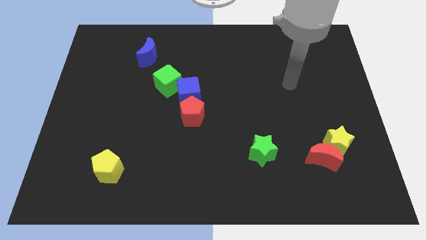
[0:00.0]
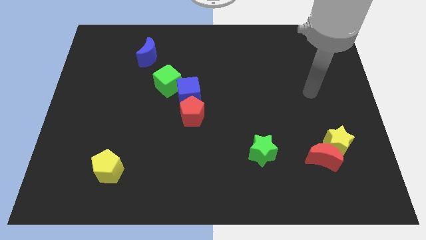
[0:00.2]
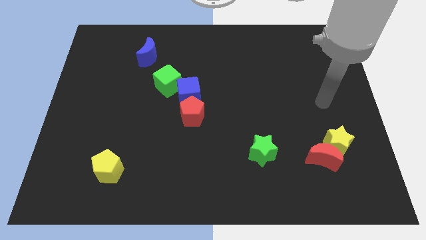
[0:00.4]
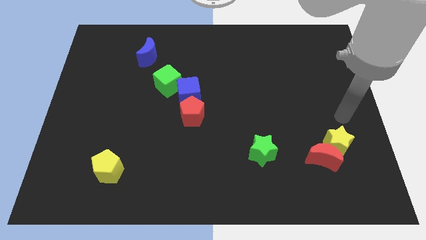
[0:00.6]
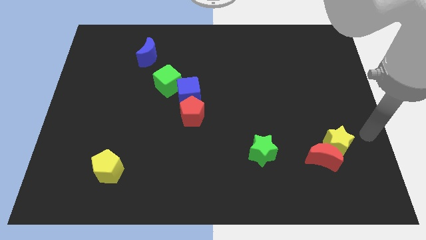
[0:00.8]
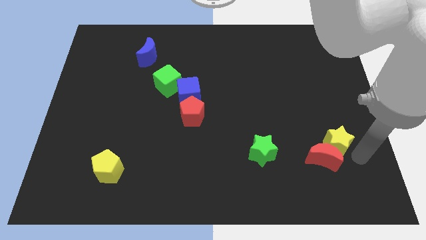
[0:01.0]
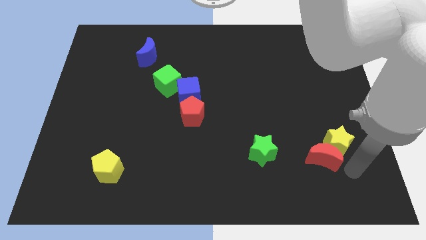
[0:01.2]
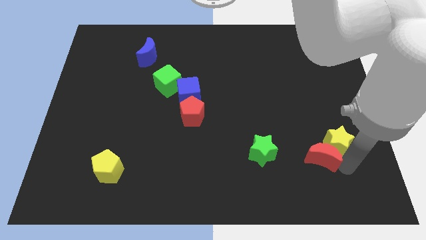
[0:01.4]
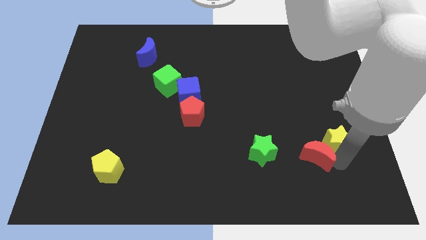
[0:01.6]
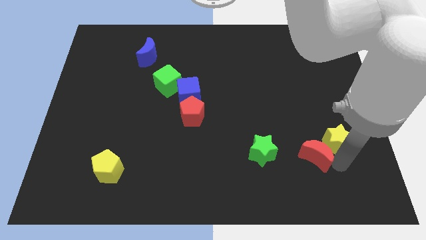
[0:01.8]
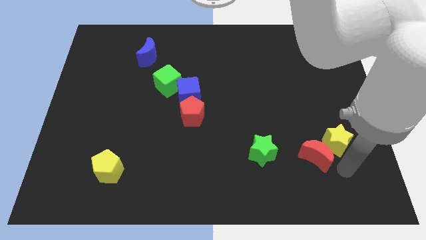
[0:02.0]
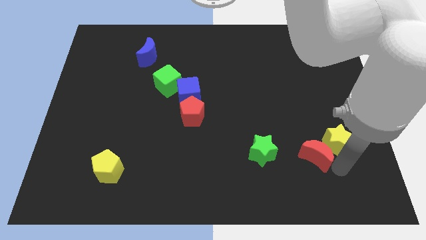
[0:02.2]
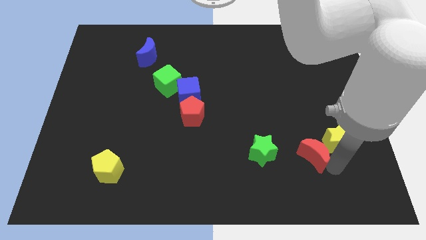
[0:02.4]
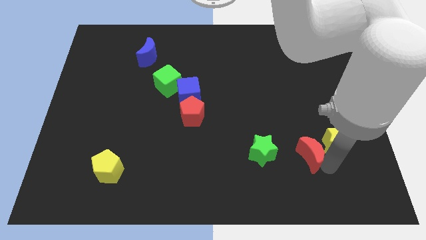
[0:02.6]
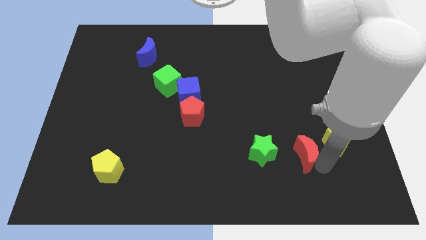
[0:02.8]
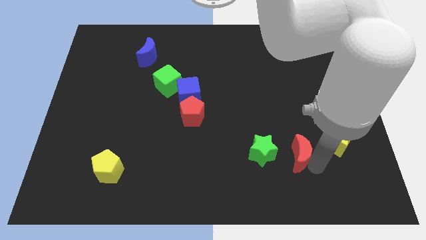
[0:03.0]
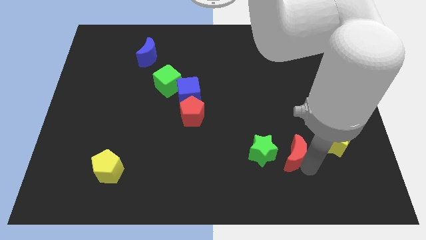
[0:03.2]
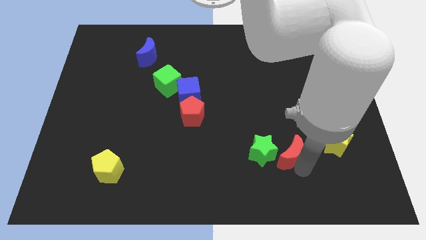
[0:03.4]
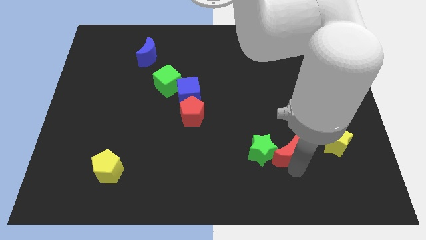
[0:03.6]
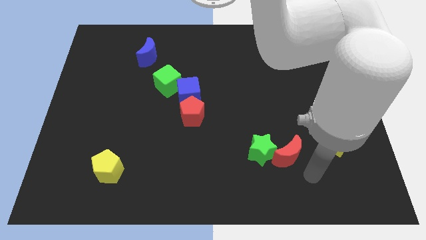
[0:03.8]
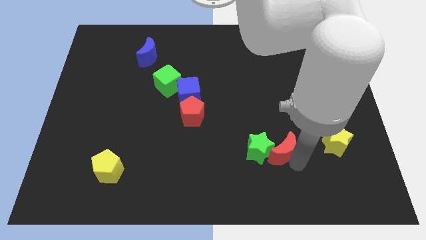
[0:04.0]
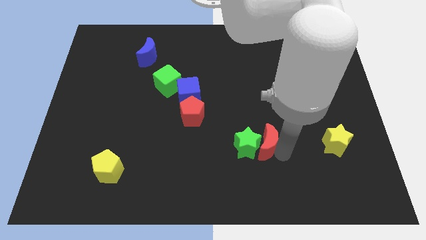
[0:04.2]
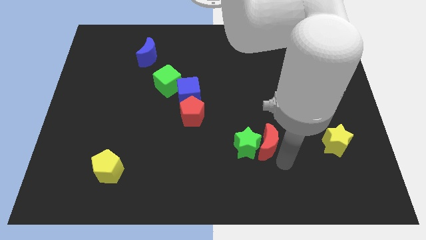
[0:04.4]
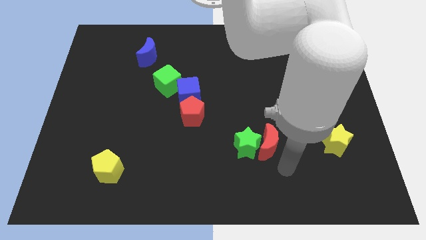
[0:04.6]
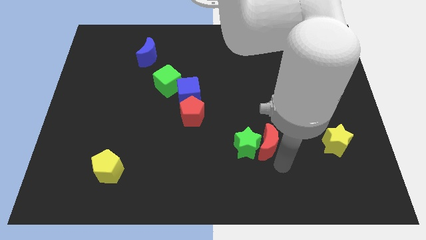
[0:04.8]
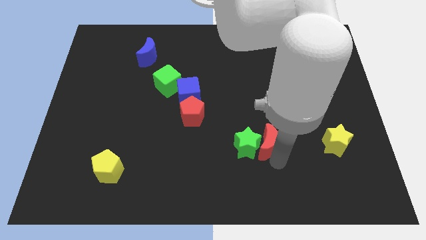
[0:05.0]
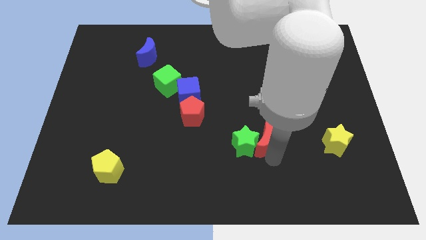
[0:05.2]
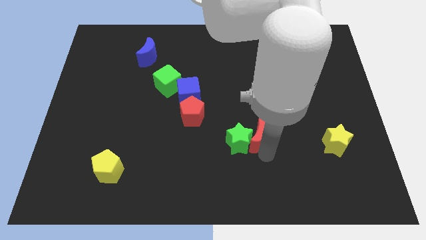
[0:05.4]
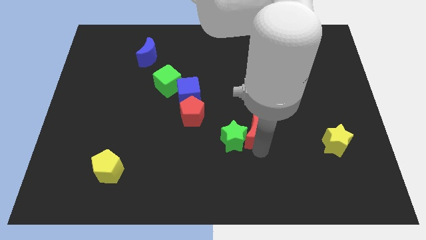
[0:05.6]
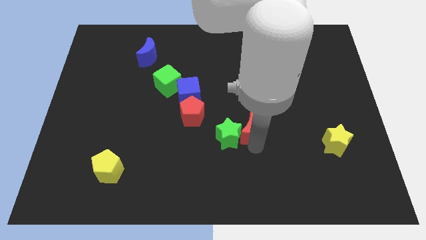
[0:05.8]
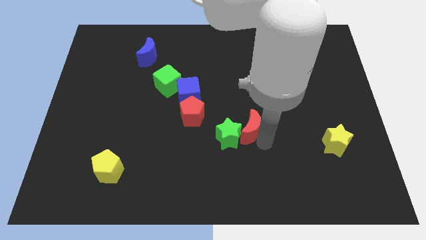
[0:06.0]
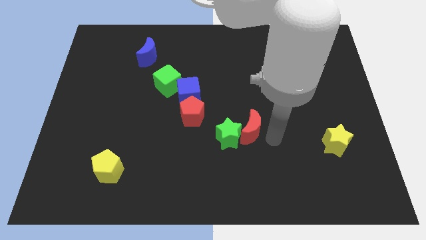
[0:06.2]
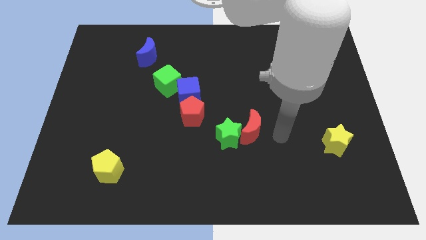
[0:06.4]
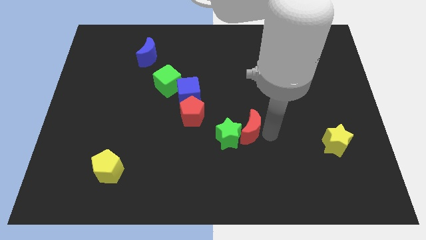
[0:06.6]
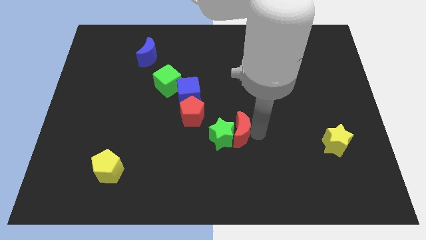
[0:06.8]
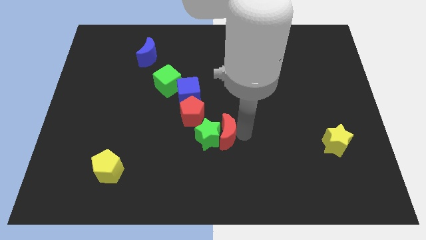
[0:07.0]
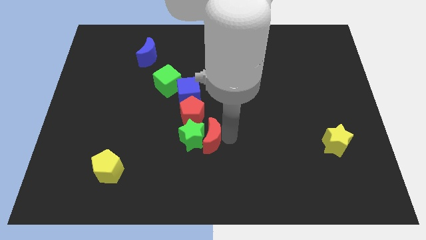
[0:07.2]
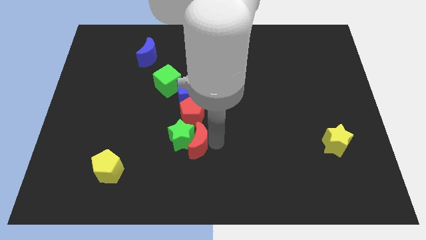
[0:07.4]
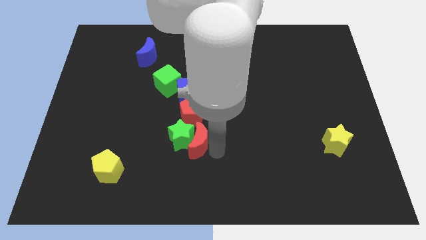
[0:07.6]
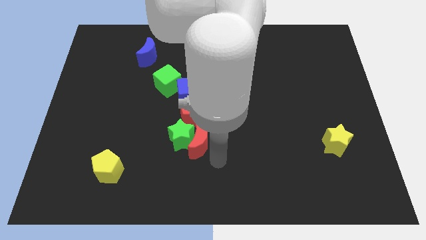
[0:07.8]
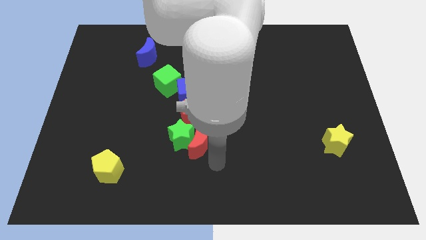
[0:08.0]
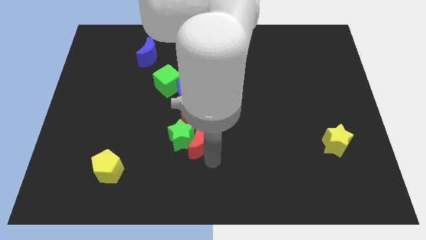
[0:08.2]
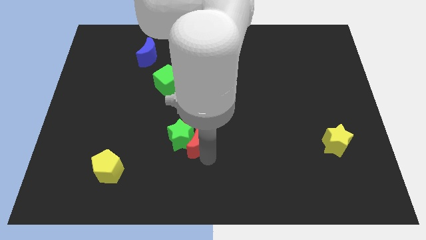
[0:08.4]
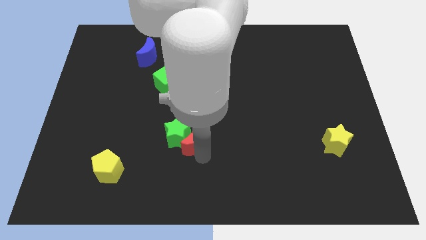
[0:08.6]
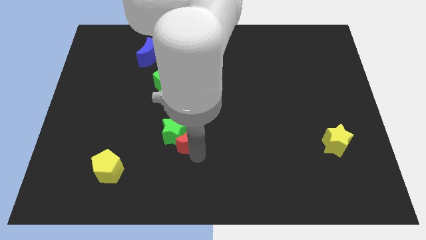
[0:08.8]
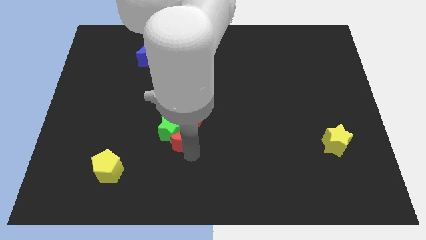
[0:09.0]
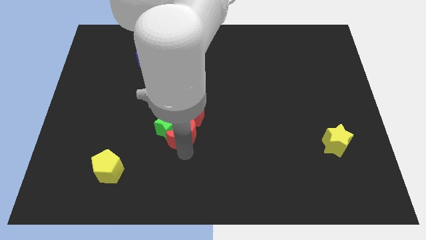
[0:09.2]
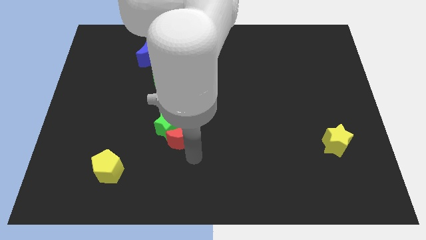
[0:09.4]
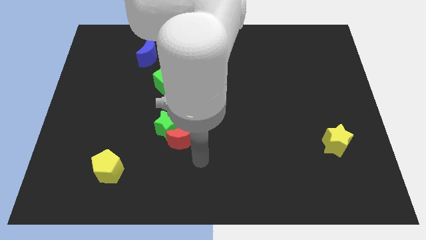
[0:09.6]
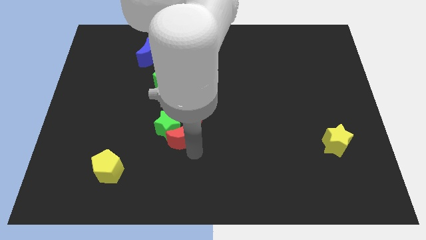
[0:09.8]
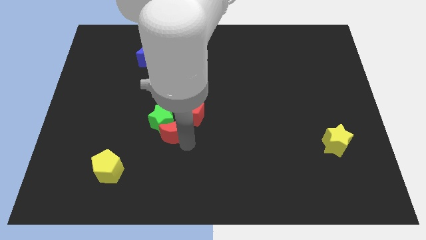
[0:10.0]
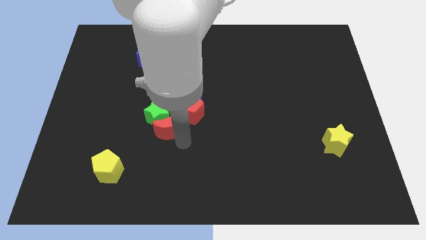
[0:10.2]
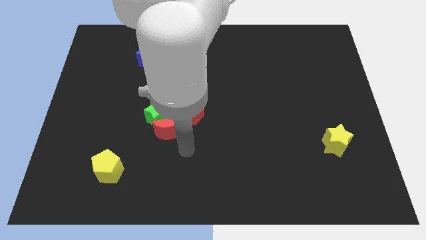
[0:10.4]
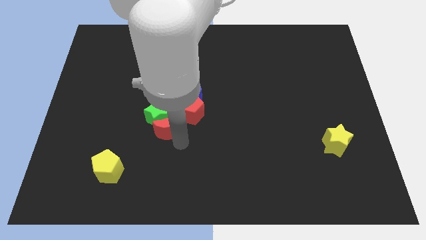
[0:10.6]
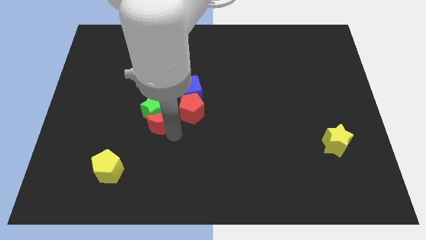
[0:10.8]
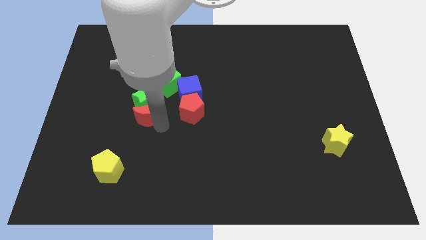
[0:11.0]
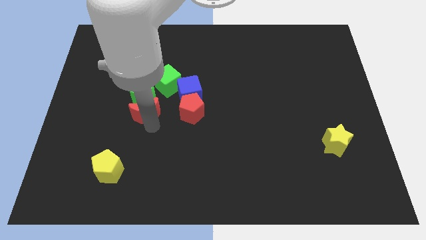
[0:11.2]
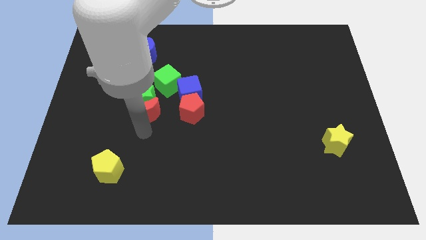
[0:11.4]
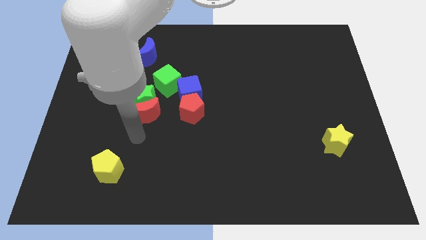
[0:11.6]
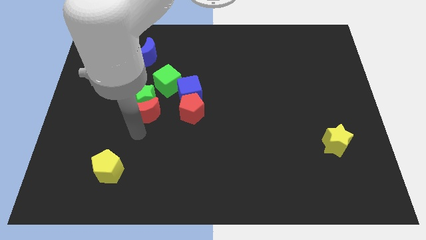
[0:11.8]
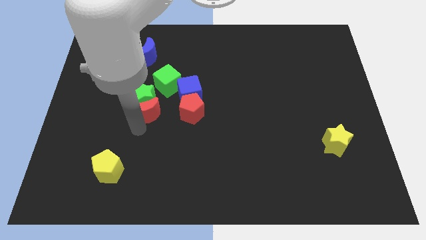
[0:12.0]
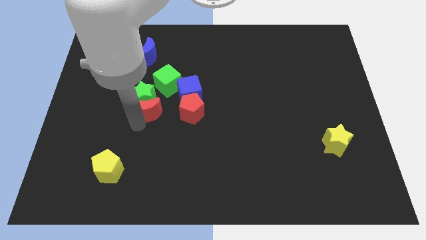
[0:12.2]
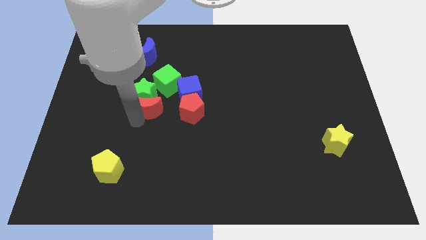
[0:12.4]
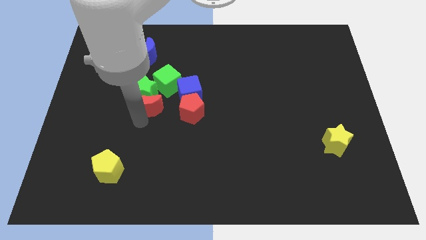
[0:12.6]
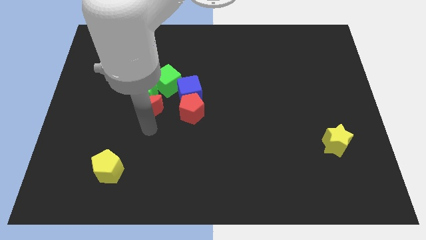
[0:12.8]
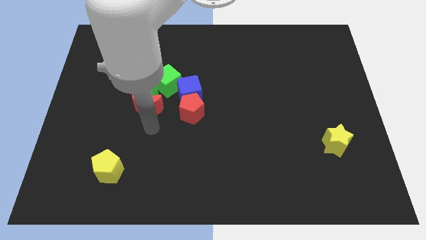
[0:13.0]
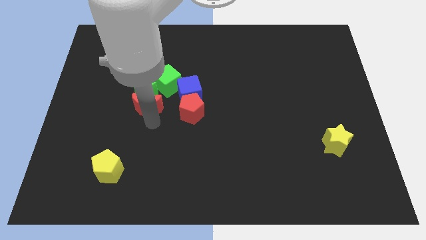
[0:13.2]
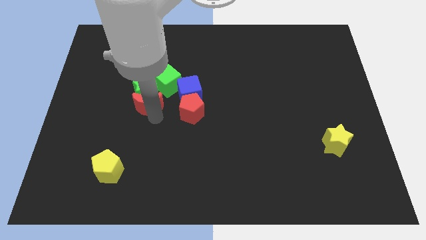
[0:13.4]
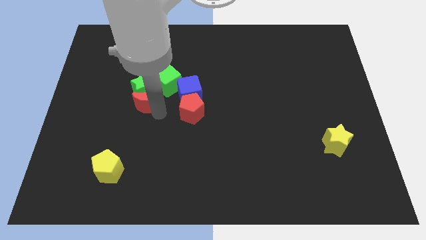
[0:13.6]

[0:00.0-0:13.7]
put the red moon below the blue moon
